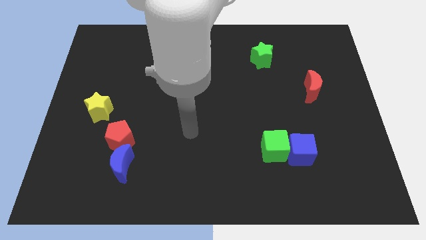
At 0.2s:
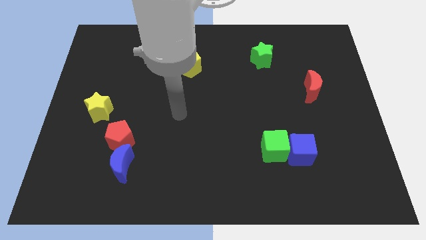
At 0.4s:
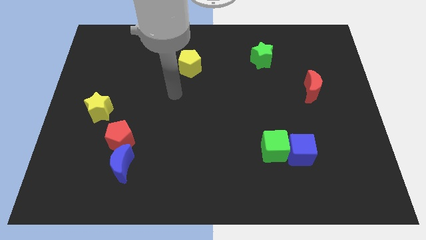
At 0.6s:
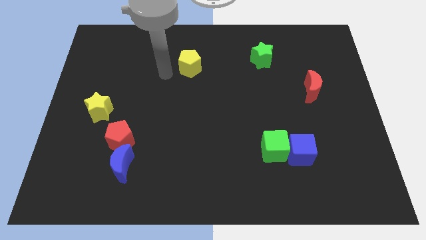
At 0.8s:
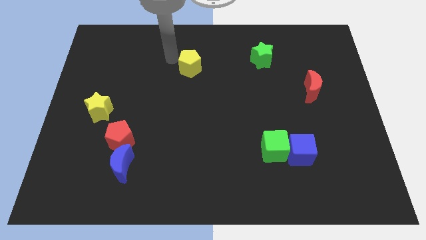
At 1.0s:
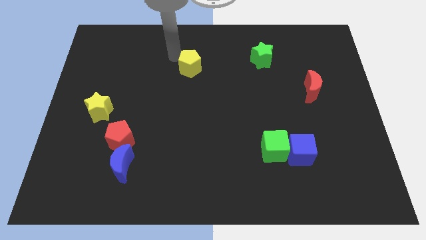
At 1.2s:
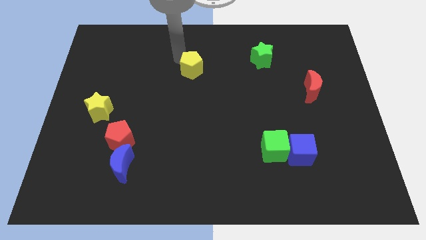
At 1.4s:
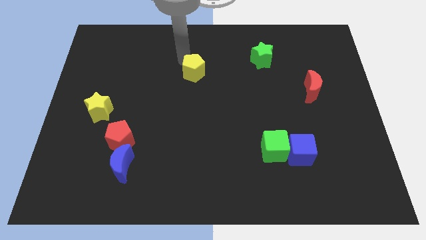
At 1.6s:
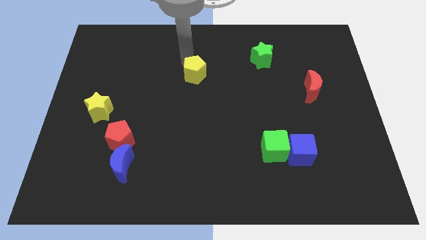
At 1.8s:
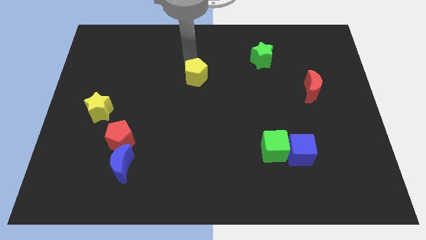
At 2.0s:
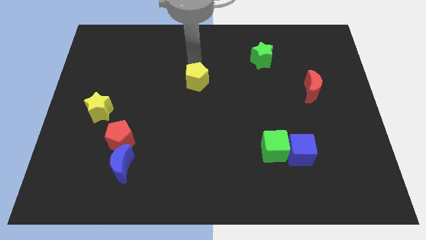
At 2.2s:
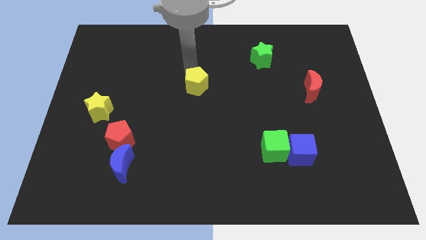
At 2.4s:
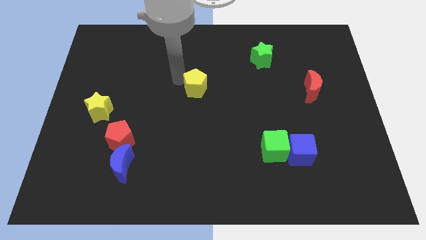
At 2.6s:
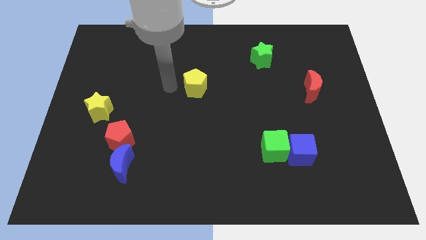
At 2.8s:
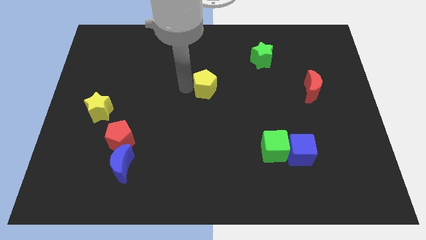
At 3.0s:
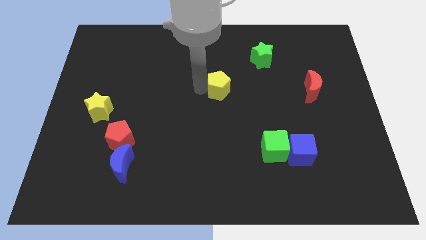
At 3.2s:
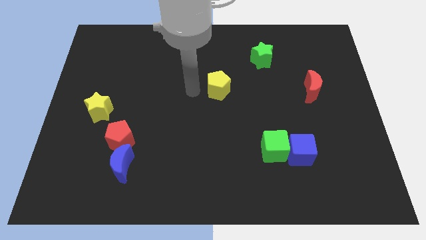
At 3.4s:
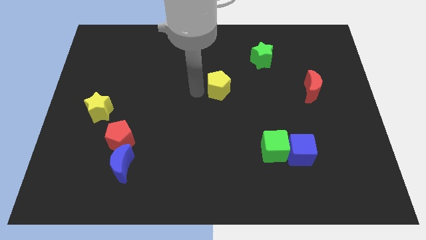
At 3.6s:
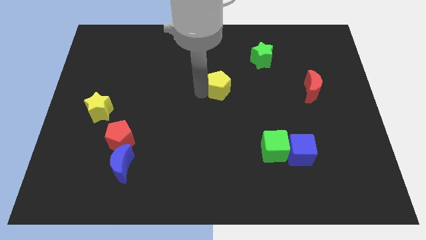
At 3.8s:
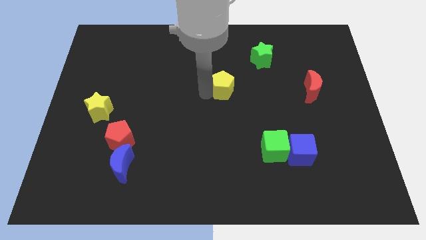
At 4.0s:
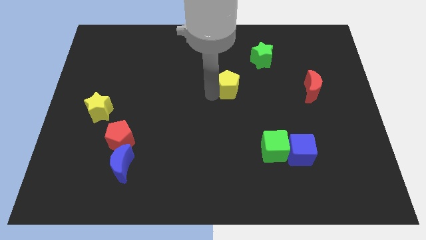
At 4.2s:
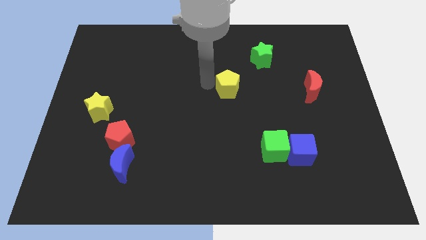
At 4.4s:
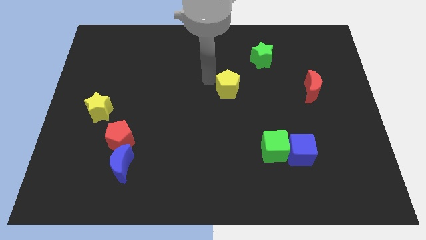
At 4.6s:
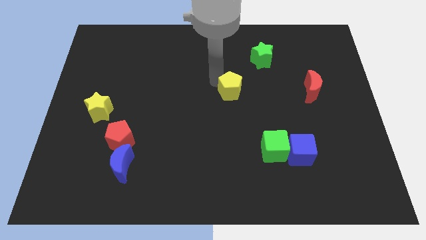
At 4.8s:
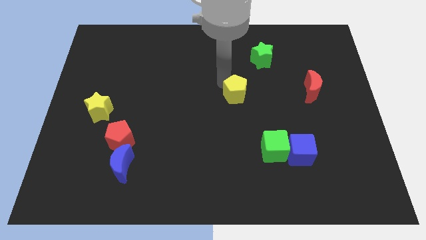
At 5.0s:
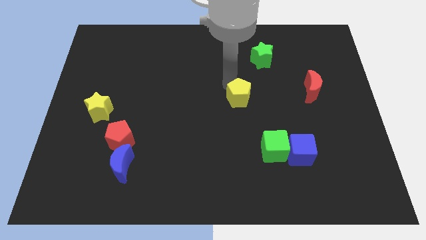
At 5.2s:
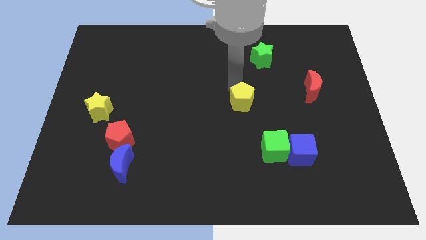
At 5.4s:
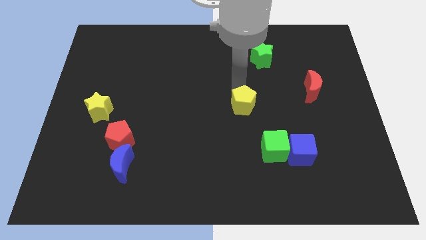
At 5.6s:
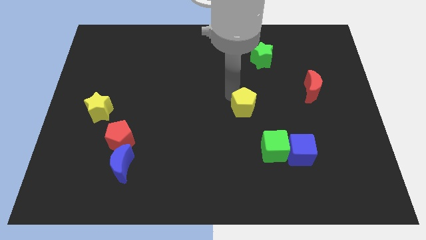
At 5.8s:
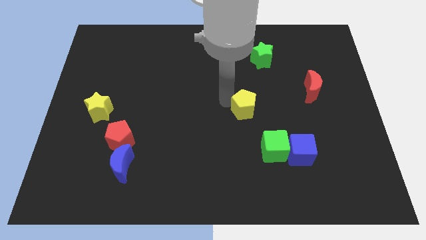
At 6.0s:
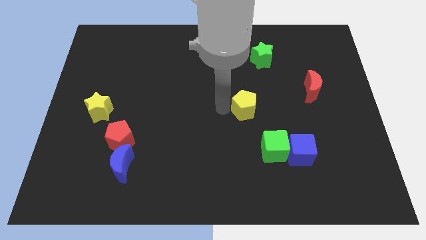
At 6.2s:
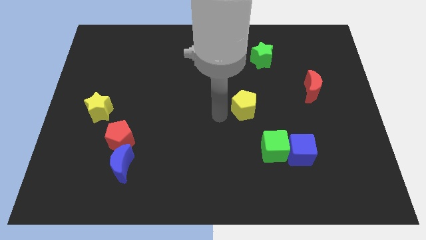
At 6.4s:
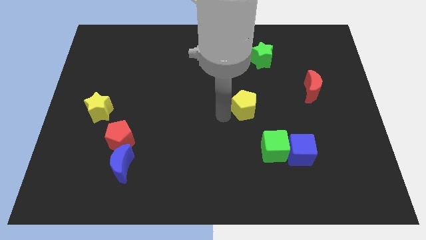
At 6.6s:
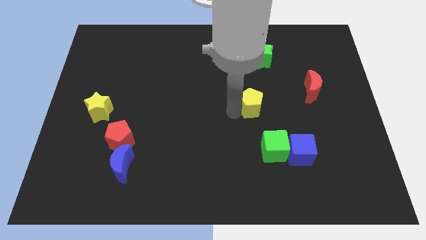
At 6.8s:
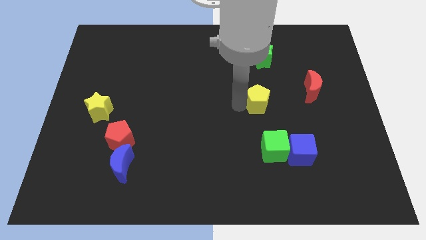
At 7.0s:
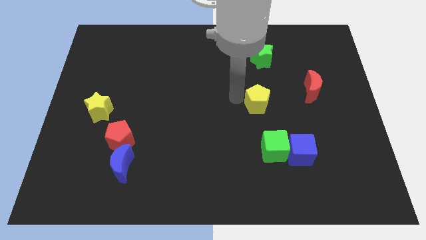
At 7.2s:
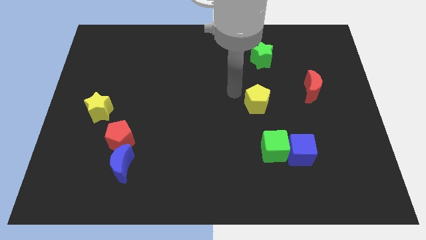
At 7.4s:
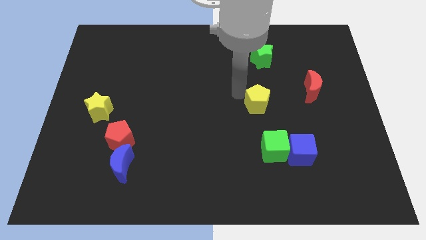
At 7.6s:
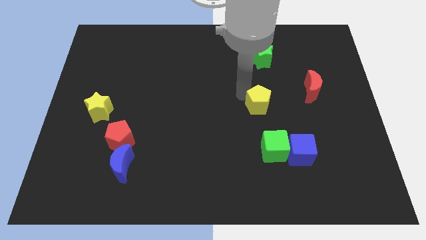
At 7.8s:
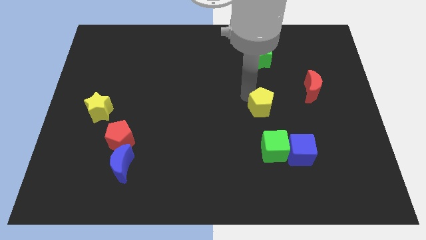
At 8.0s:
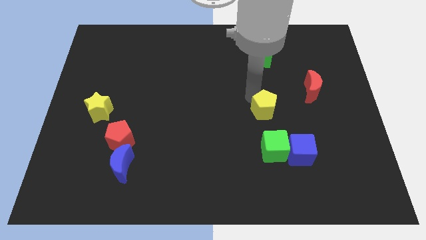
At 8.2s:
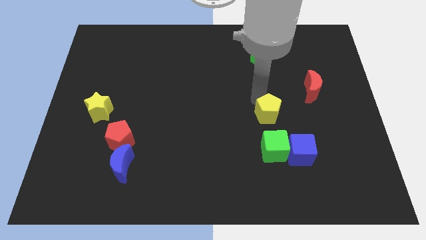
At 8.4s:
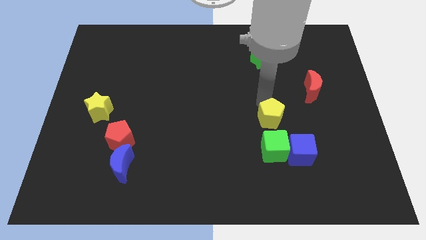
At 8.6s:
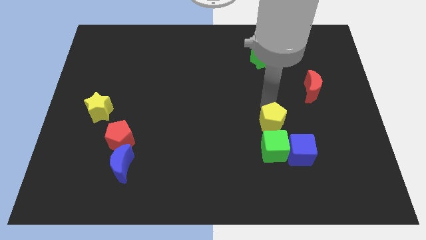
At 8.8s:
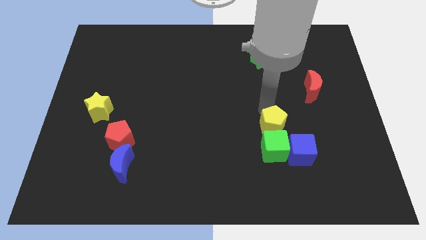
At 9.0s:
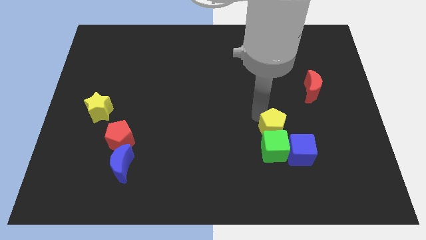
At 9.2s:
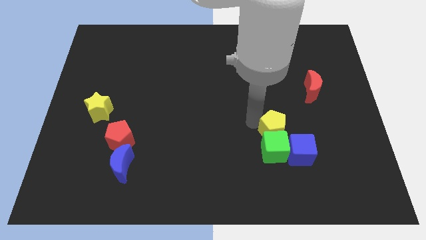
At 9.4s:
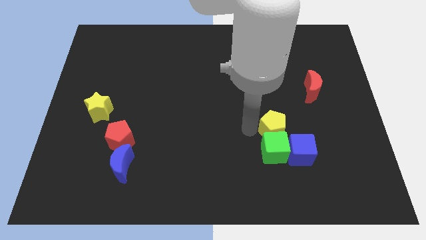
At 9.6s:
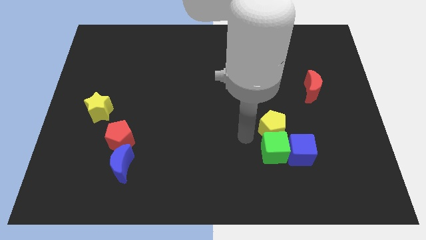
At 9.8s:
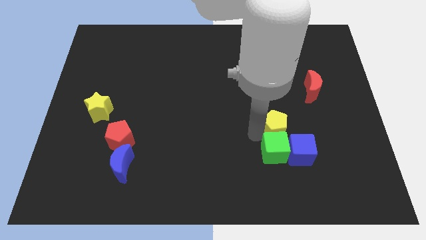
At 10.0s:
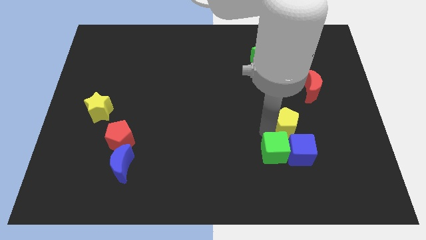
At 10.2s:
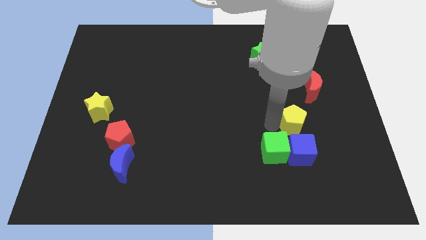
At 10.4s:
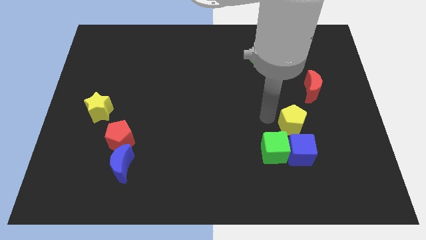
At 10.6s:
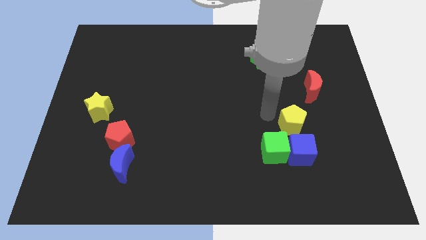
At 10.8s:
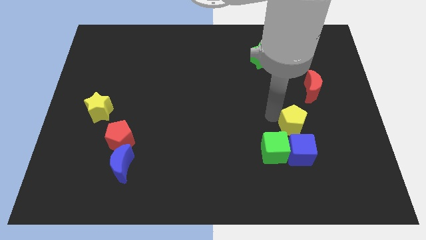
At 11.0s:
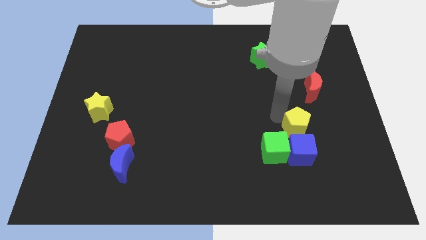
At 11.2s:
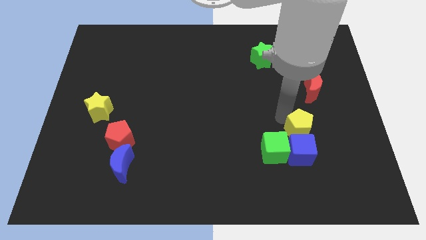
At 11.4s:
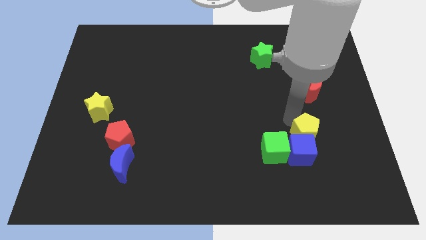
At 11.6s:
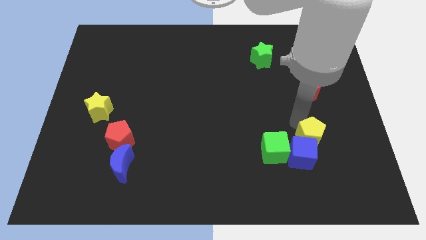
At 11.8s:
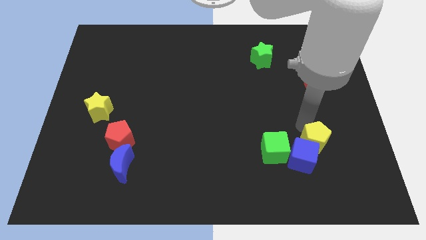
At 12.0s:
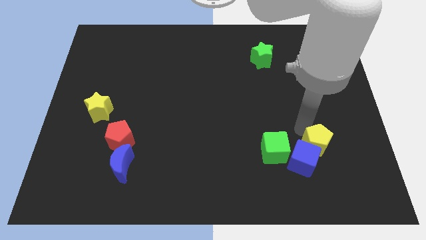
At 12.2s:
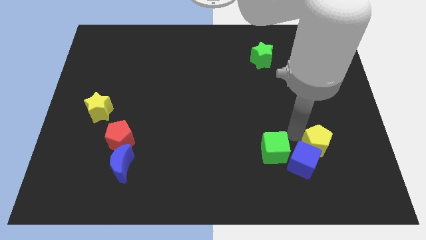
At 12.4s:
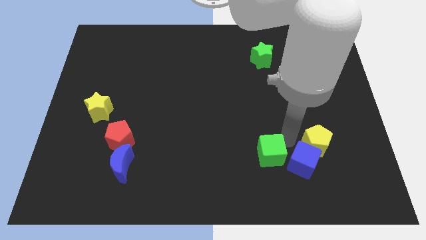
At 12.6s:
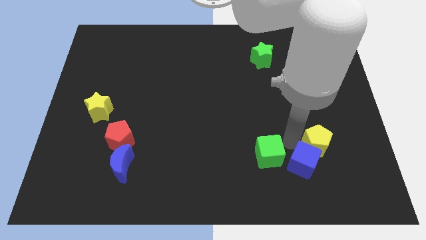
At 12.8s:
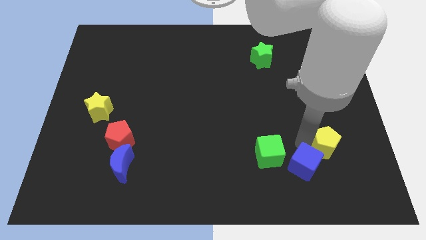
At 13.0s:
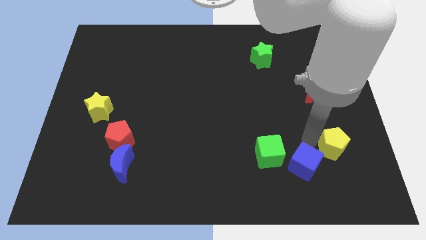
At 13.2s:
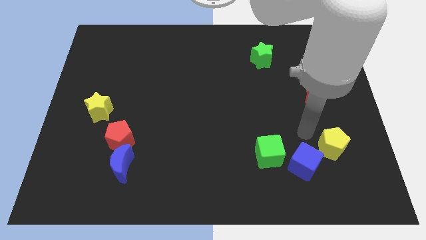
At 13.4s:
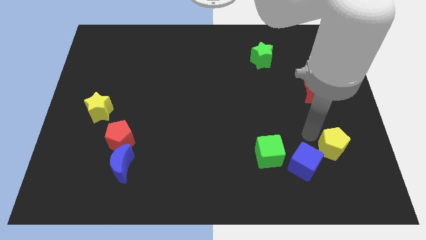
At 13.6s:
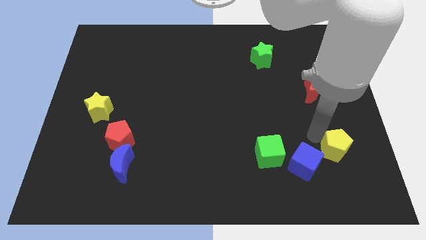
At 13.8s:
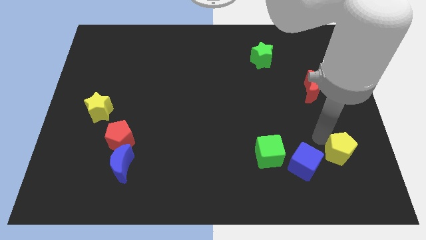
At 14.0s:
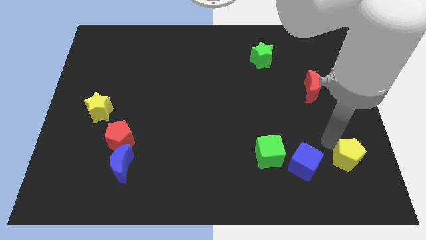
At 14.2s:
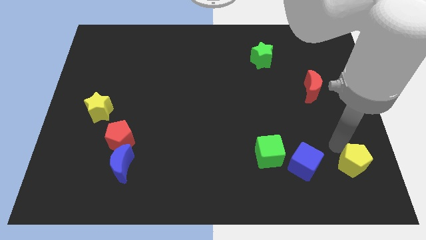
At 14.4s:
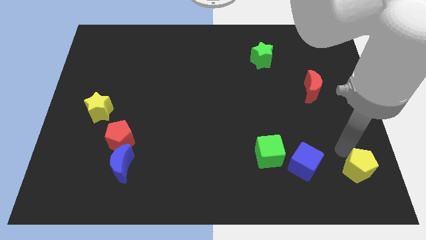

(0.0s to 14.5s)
slide the yellow pentagon to the bottom right of the board
